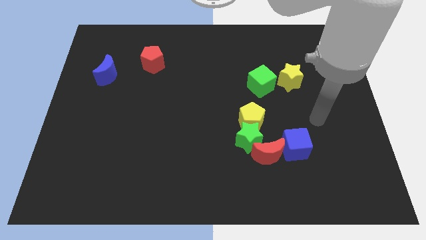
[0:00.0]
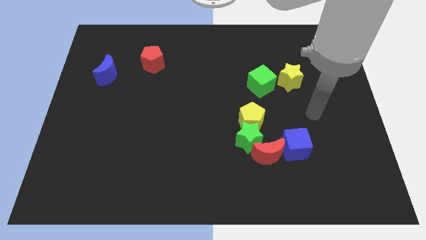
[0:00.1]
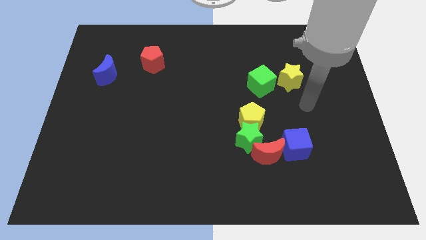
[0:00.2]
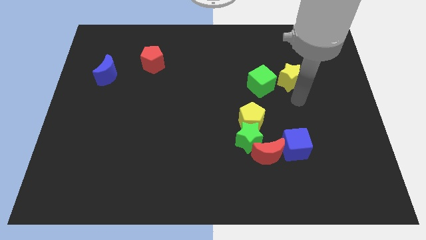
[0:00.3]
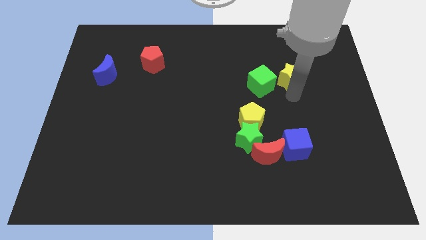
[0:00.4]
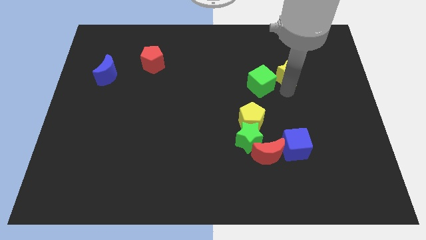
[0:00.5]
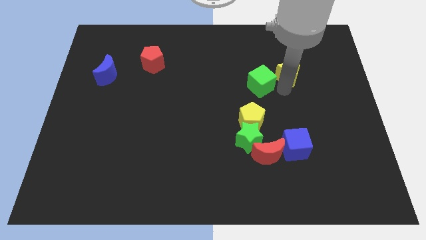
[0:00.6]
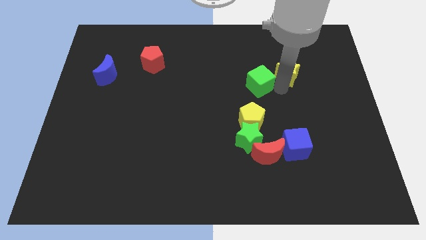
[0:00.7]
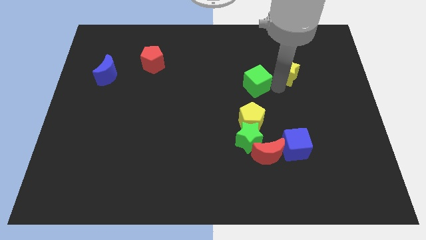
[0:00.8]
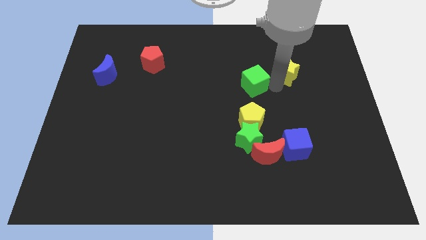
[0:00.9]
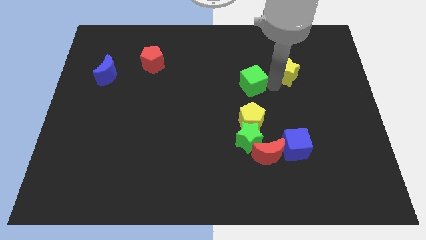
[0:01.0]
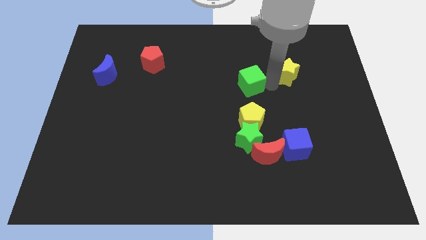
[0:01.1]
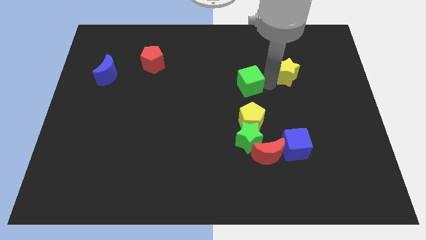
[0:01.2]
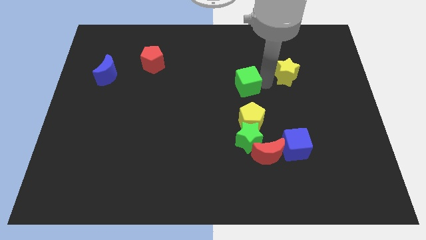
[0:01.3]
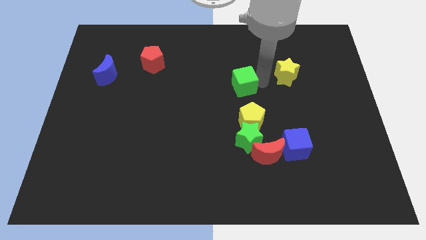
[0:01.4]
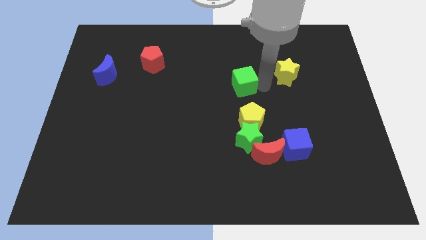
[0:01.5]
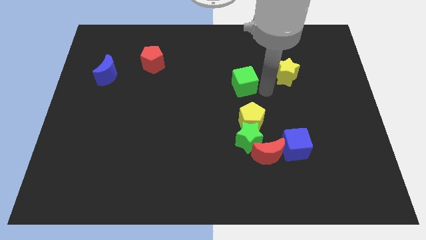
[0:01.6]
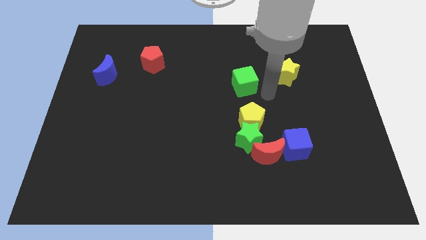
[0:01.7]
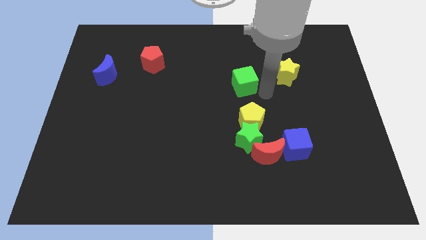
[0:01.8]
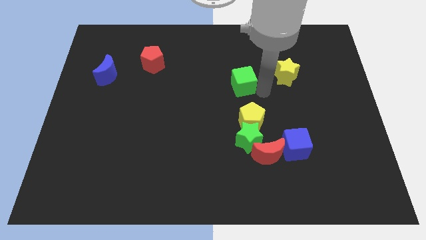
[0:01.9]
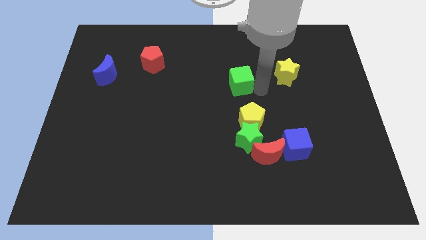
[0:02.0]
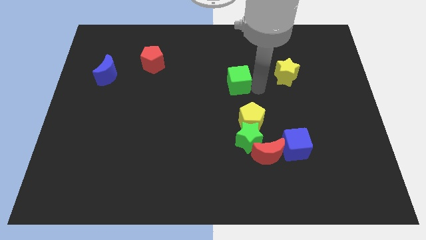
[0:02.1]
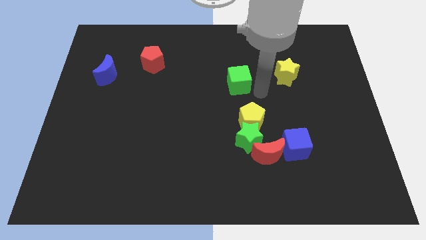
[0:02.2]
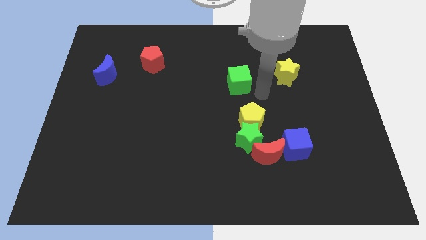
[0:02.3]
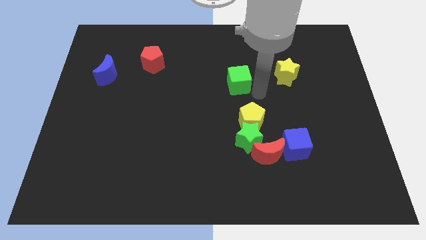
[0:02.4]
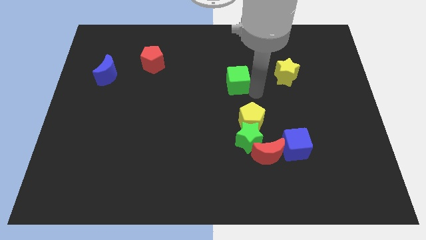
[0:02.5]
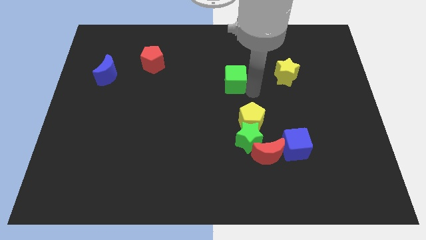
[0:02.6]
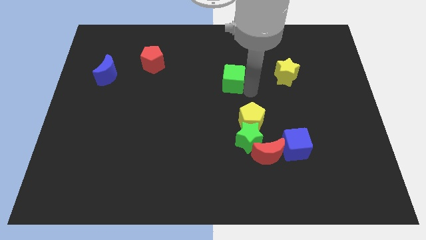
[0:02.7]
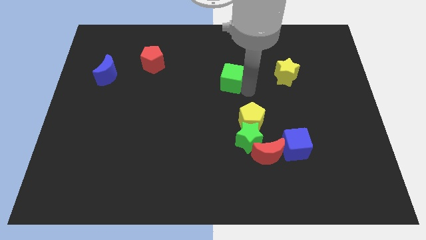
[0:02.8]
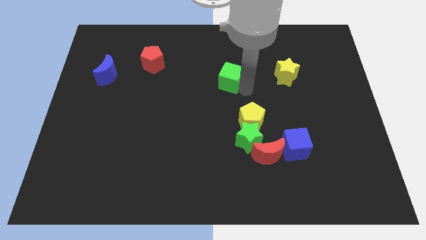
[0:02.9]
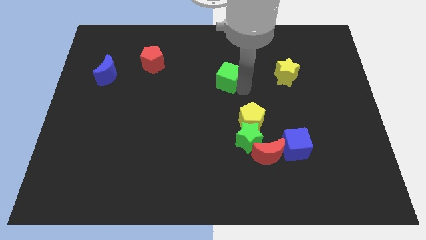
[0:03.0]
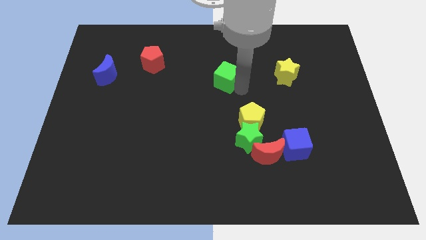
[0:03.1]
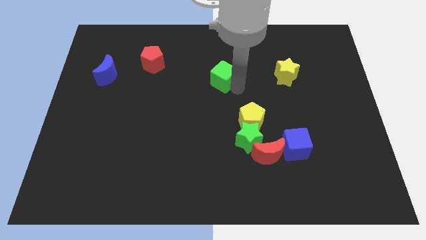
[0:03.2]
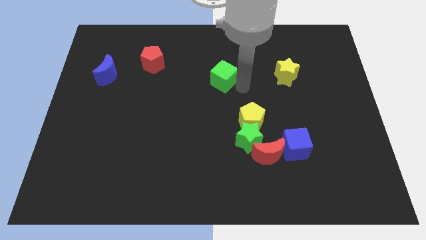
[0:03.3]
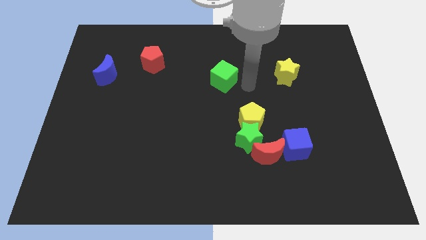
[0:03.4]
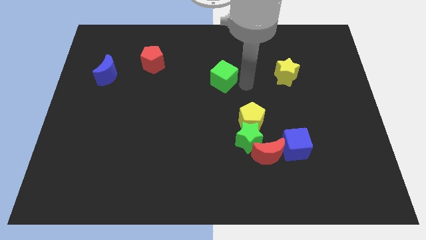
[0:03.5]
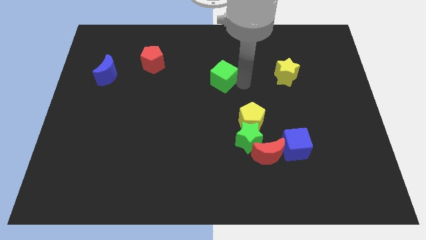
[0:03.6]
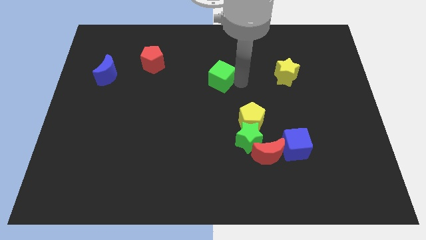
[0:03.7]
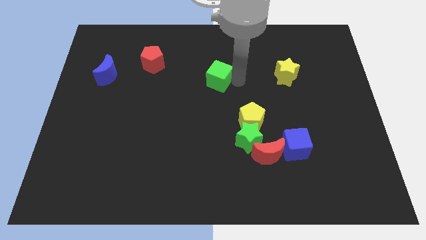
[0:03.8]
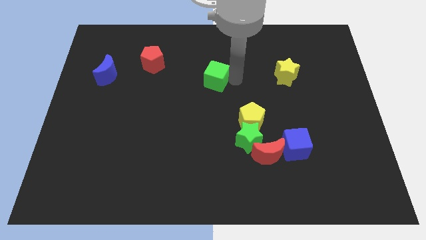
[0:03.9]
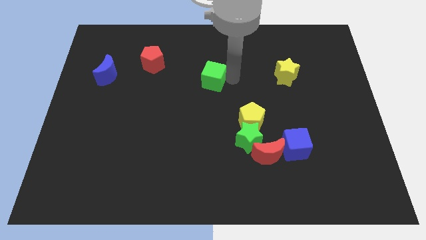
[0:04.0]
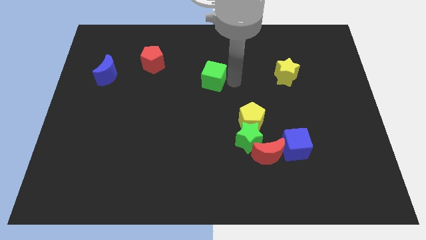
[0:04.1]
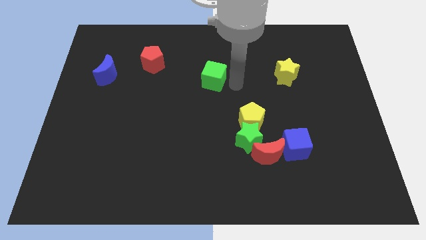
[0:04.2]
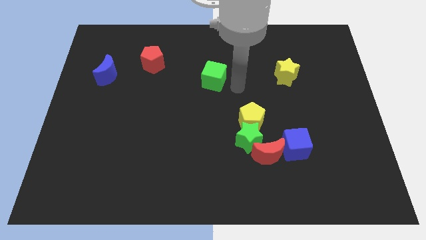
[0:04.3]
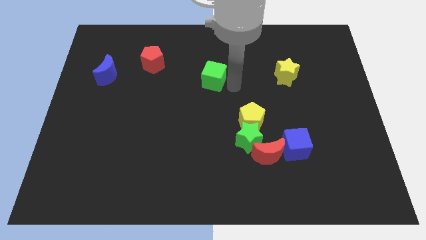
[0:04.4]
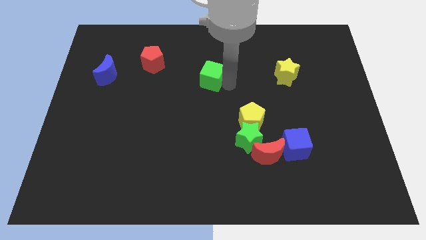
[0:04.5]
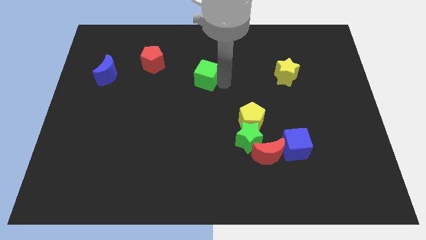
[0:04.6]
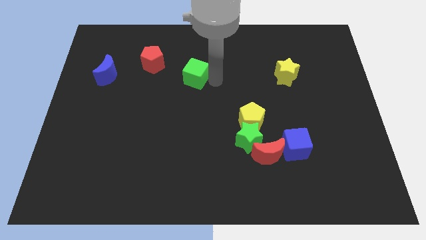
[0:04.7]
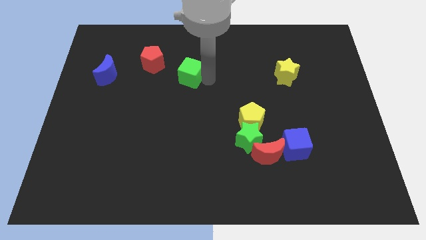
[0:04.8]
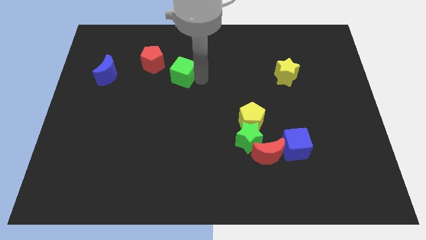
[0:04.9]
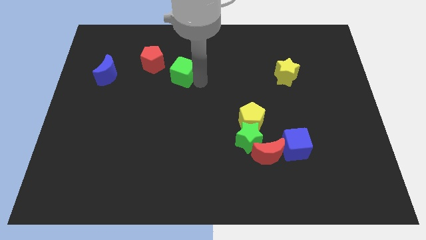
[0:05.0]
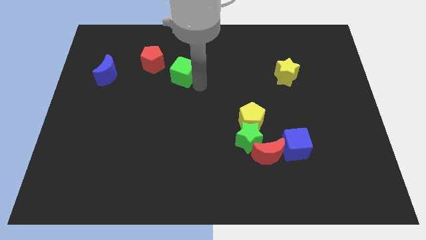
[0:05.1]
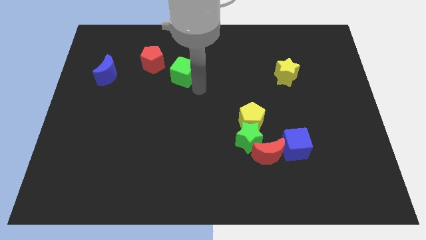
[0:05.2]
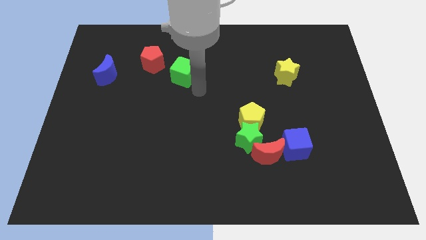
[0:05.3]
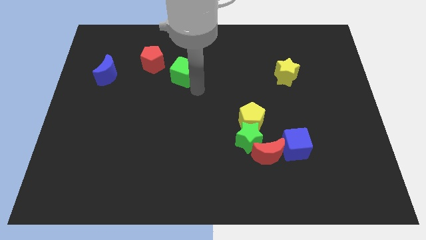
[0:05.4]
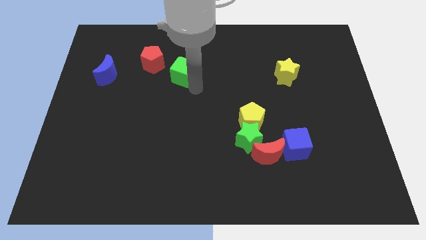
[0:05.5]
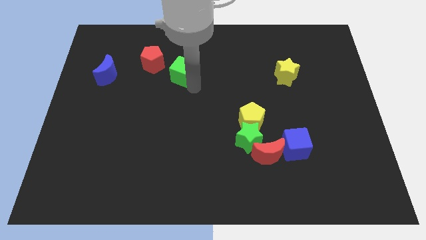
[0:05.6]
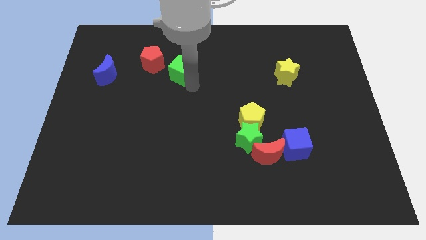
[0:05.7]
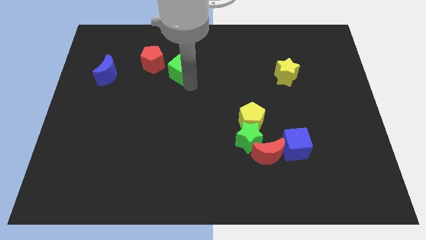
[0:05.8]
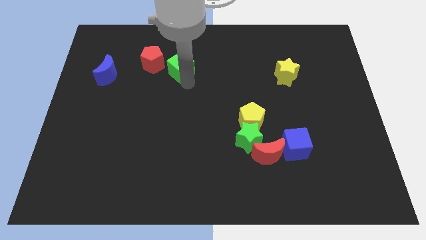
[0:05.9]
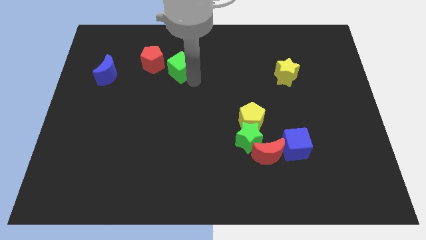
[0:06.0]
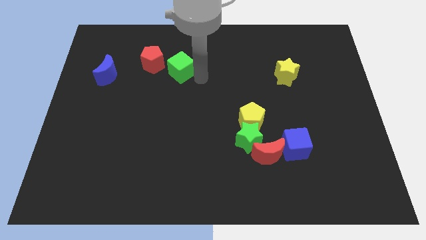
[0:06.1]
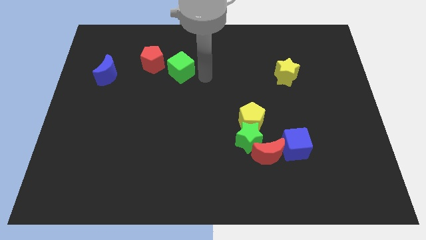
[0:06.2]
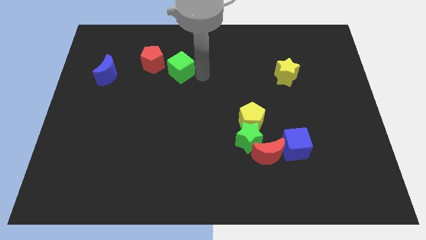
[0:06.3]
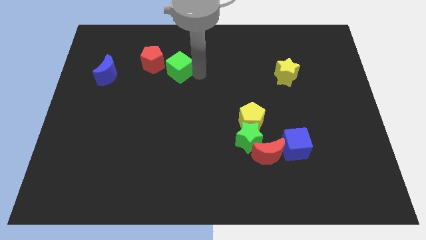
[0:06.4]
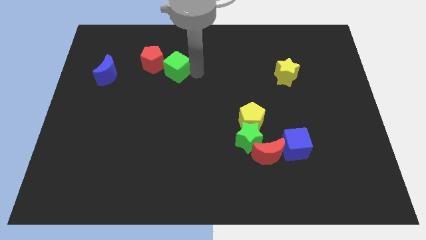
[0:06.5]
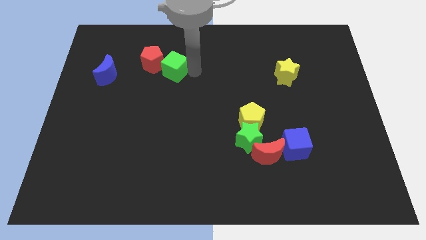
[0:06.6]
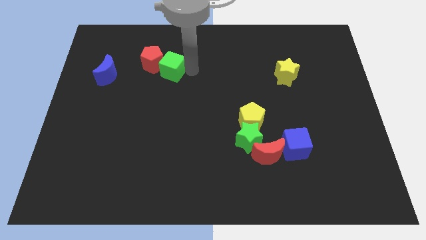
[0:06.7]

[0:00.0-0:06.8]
slide the green cube next to the red pentagon
